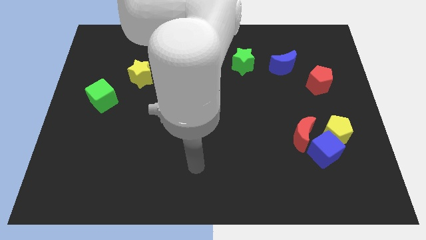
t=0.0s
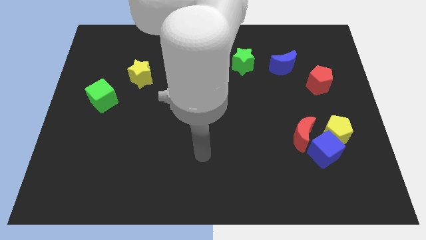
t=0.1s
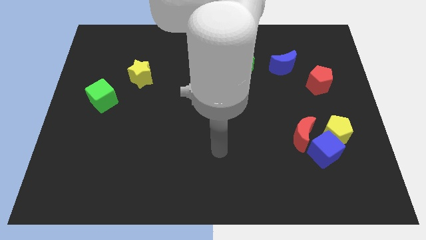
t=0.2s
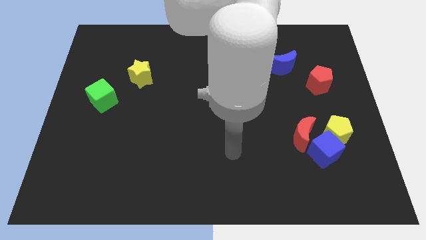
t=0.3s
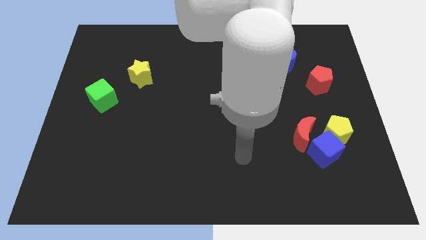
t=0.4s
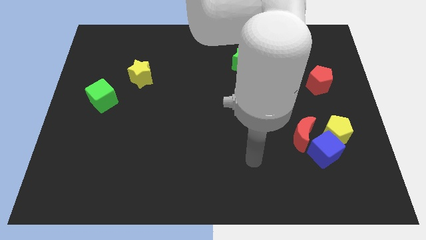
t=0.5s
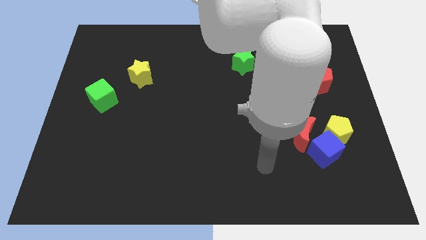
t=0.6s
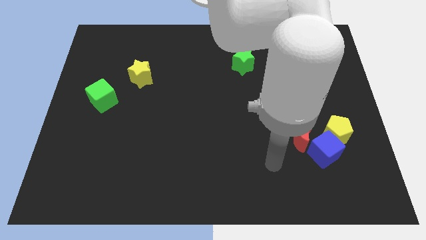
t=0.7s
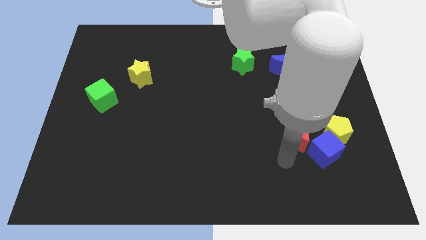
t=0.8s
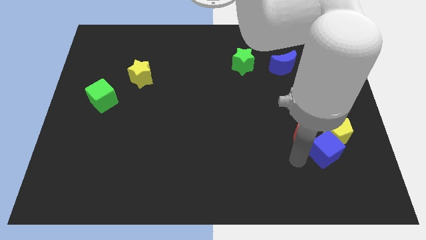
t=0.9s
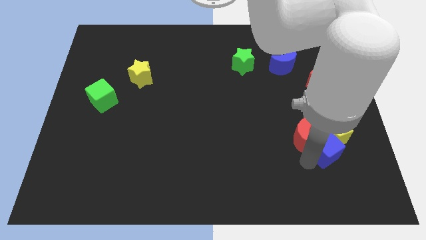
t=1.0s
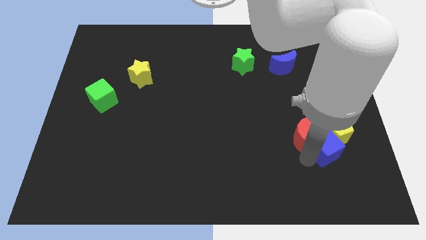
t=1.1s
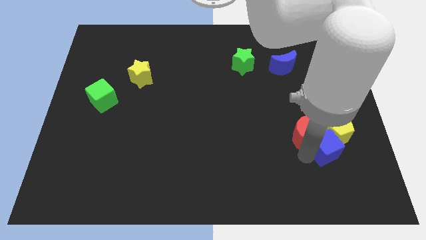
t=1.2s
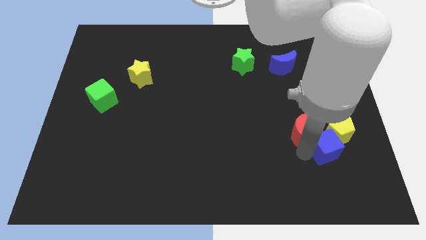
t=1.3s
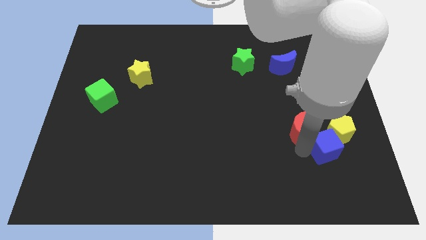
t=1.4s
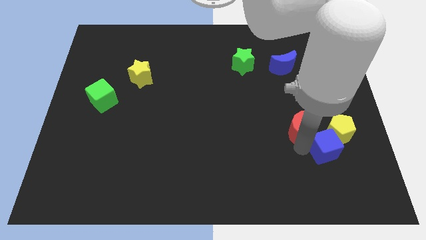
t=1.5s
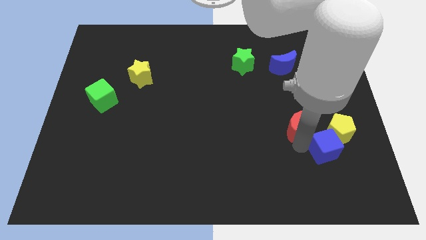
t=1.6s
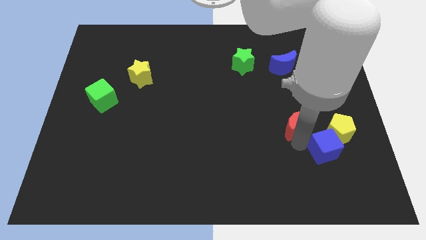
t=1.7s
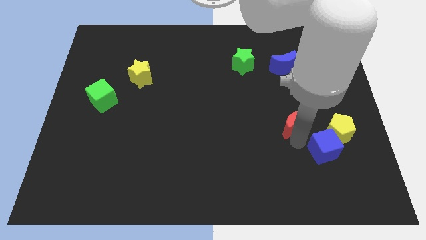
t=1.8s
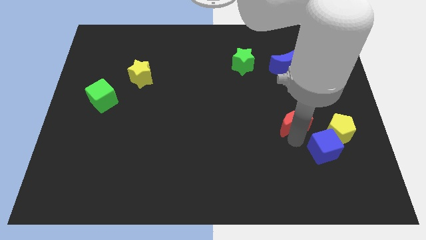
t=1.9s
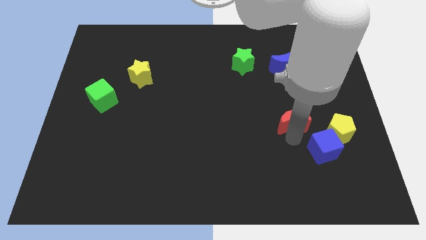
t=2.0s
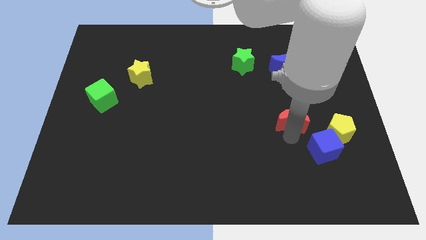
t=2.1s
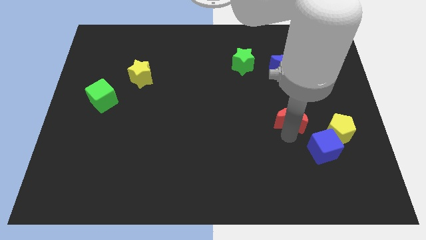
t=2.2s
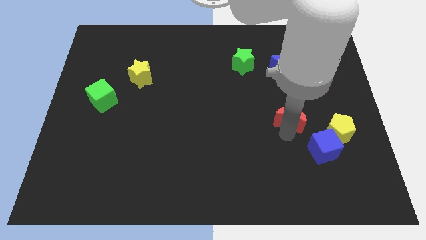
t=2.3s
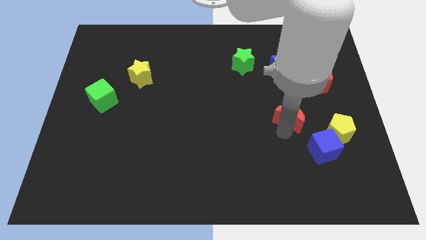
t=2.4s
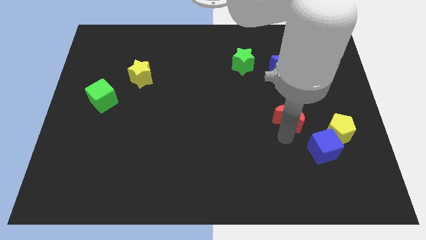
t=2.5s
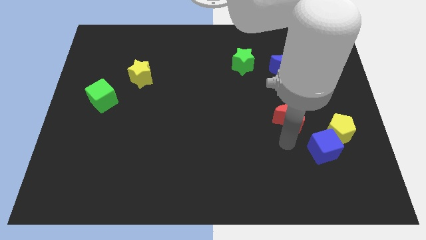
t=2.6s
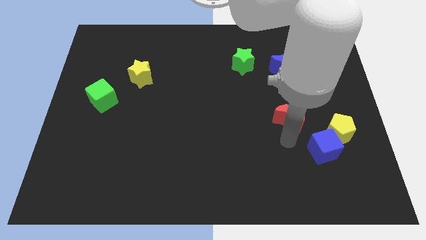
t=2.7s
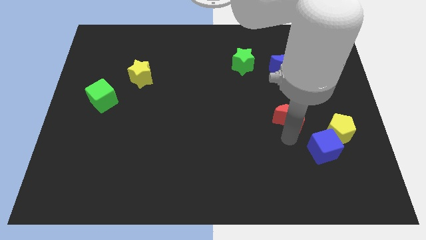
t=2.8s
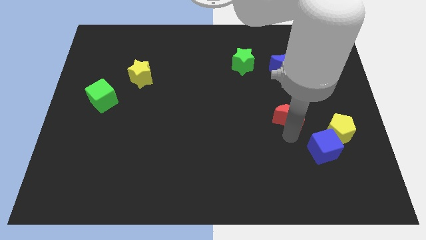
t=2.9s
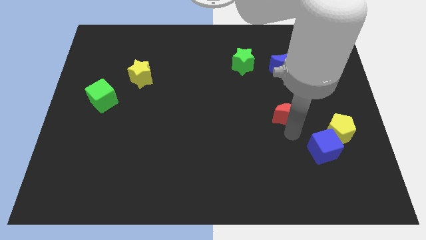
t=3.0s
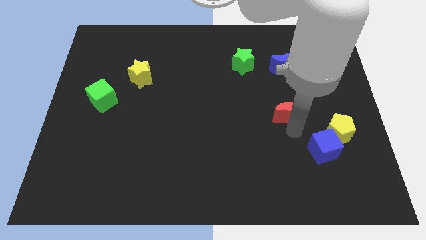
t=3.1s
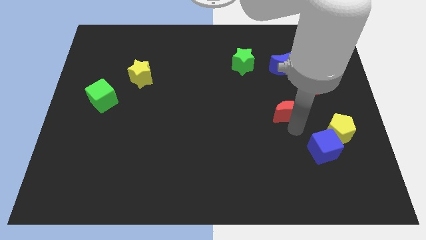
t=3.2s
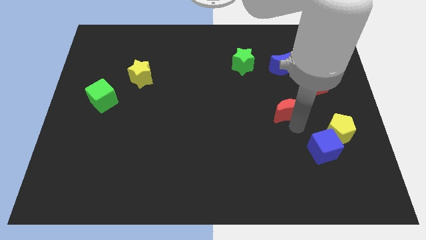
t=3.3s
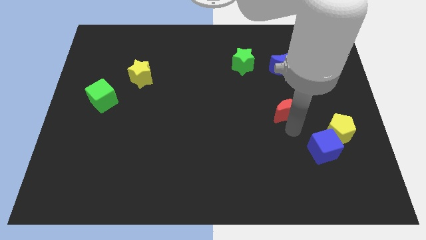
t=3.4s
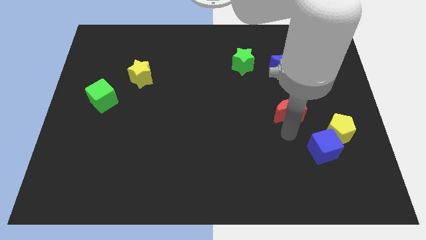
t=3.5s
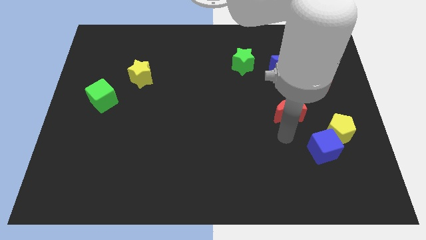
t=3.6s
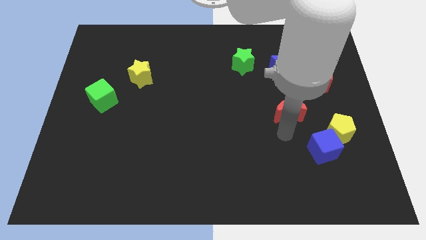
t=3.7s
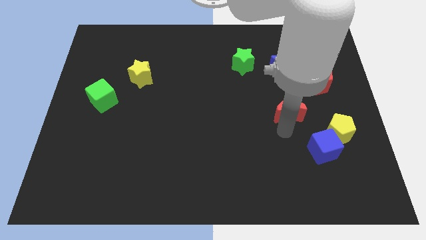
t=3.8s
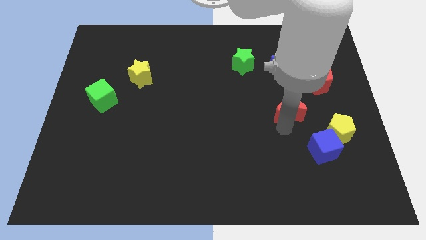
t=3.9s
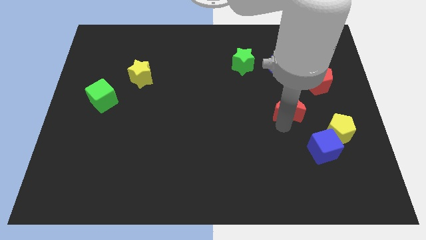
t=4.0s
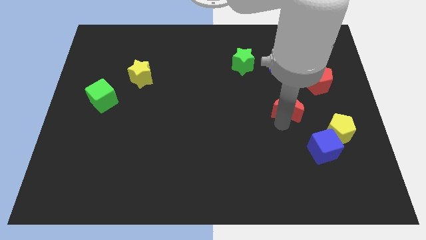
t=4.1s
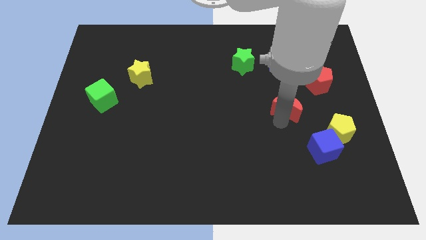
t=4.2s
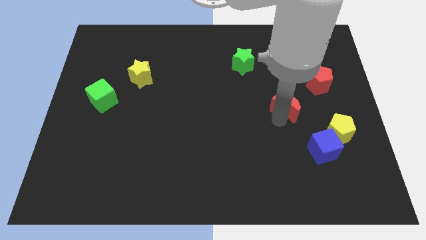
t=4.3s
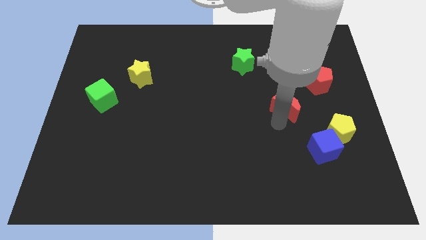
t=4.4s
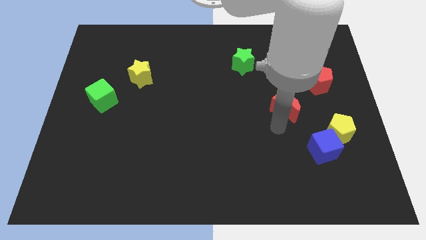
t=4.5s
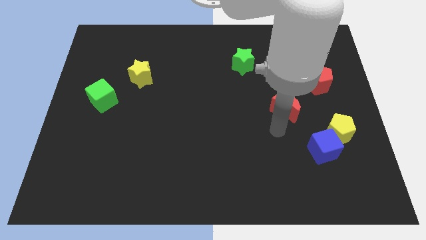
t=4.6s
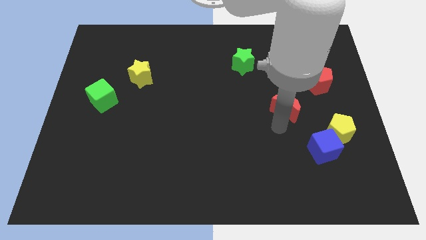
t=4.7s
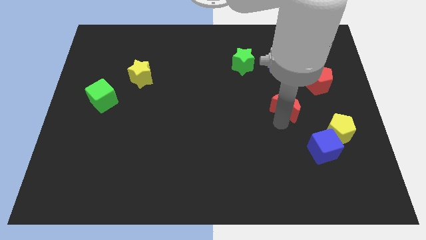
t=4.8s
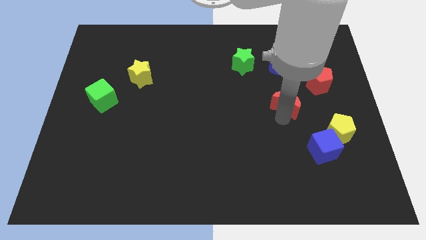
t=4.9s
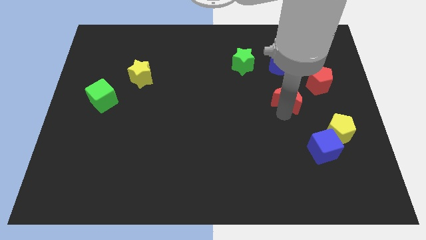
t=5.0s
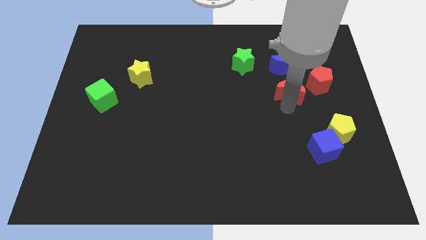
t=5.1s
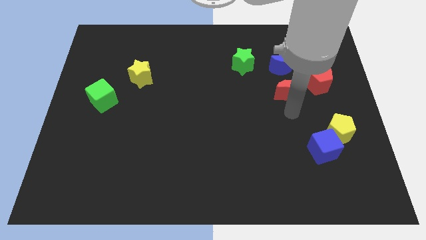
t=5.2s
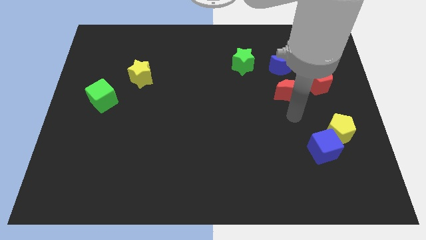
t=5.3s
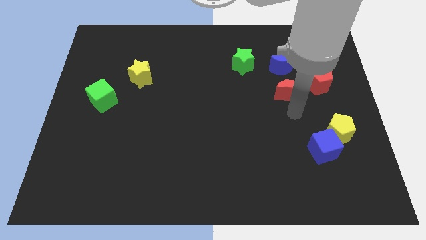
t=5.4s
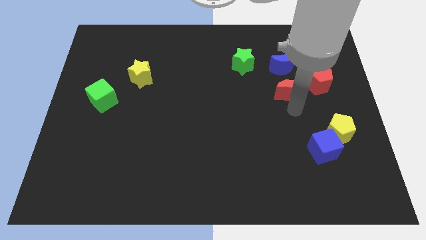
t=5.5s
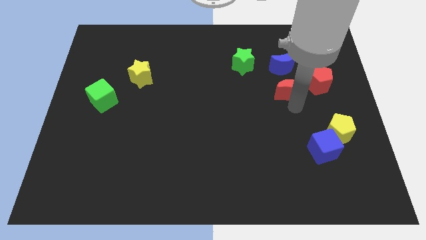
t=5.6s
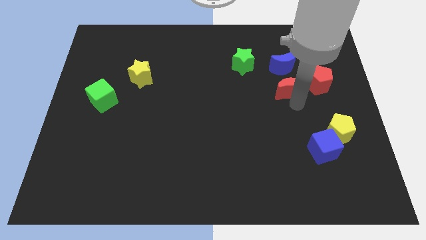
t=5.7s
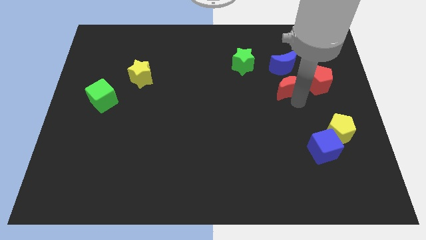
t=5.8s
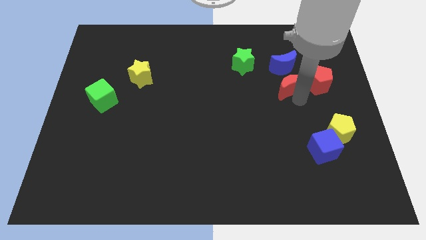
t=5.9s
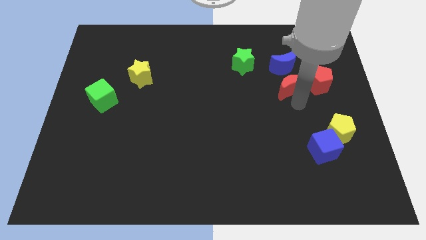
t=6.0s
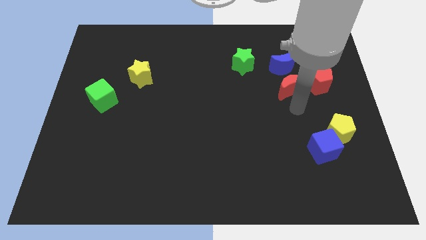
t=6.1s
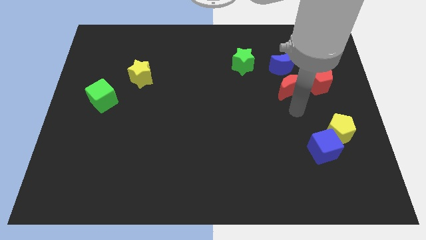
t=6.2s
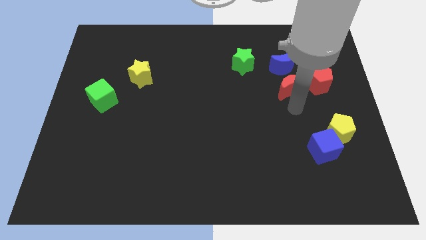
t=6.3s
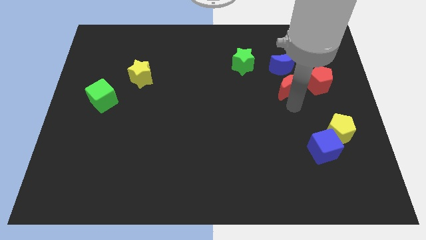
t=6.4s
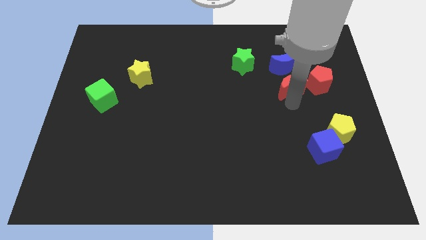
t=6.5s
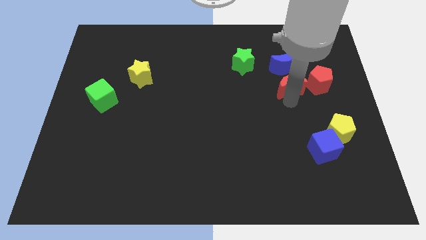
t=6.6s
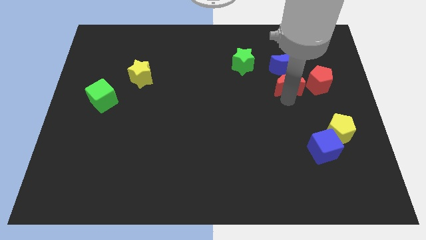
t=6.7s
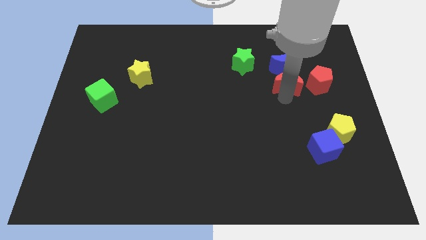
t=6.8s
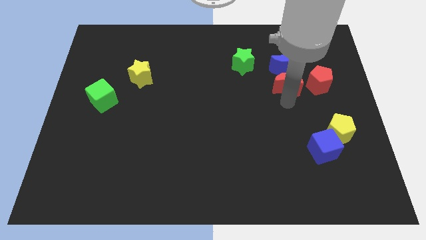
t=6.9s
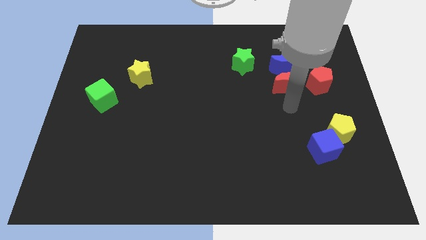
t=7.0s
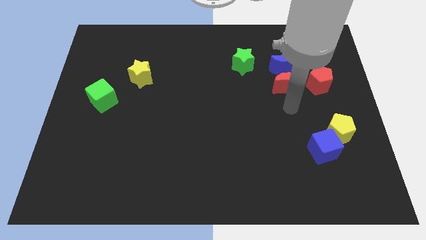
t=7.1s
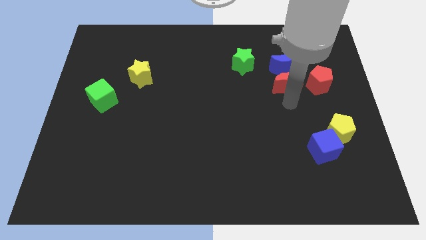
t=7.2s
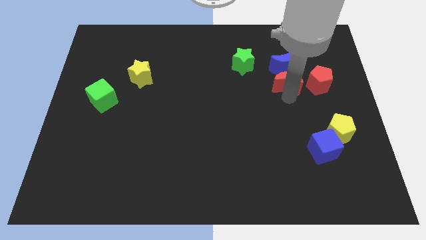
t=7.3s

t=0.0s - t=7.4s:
put the red moon next to the blue moon
